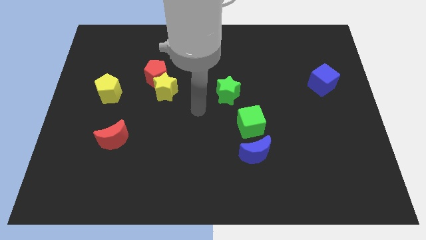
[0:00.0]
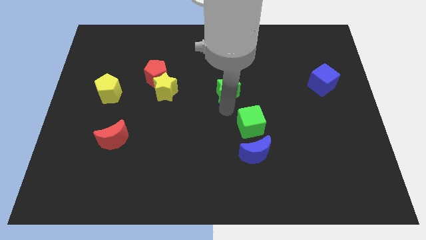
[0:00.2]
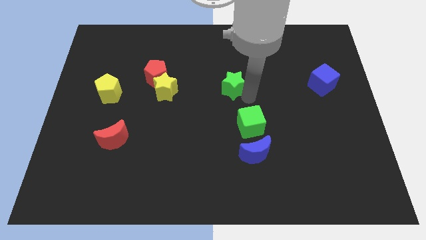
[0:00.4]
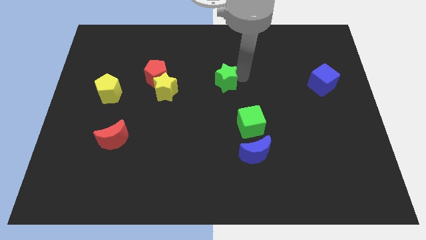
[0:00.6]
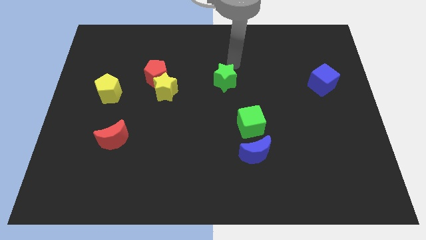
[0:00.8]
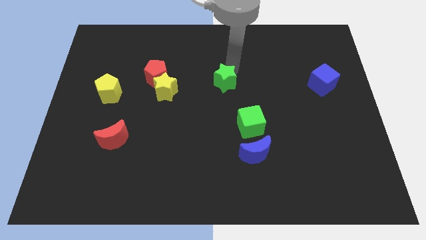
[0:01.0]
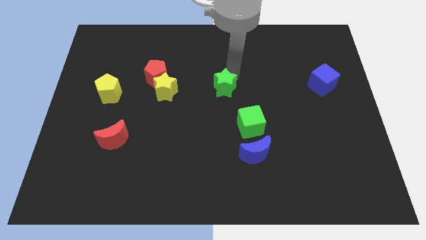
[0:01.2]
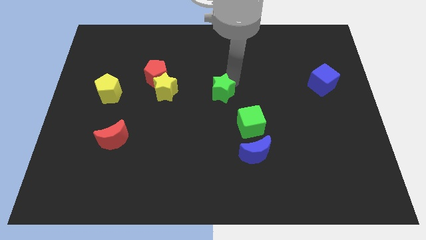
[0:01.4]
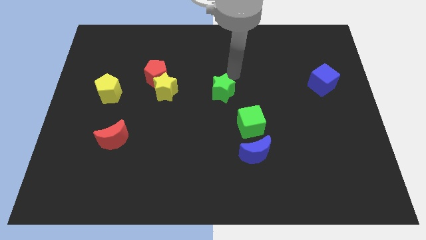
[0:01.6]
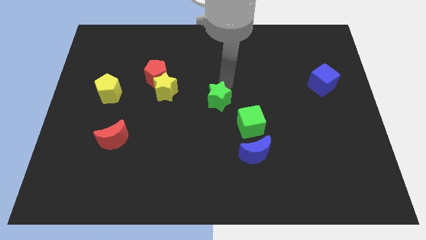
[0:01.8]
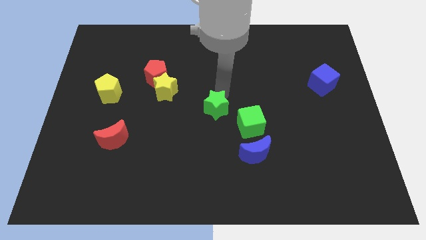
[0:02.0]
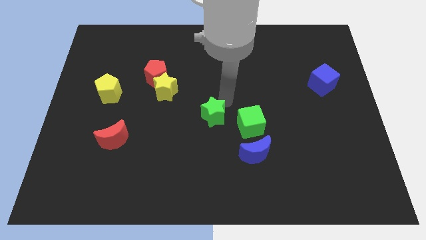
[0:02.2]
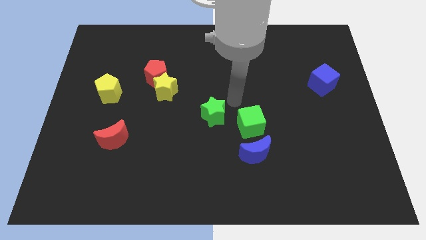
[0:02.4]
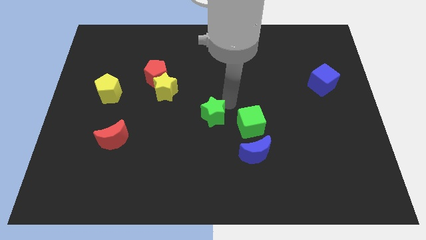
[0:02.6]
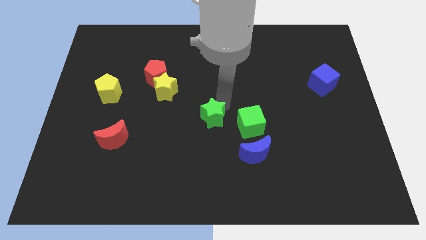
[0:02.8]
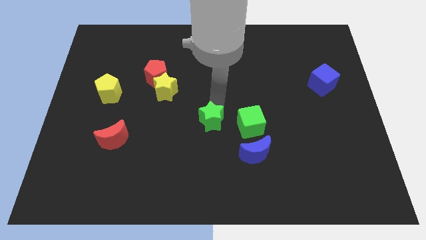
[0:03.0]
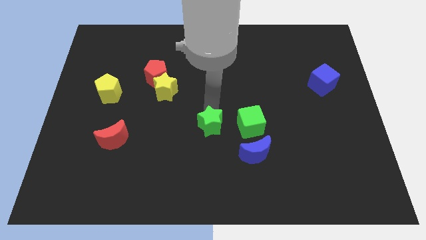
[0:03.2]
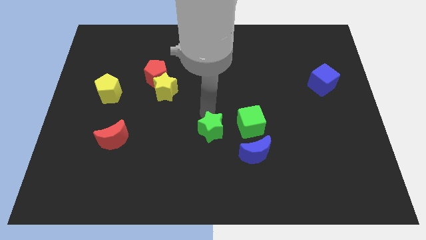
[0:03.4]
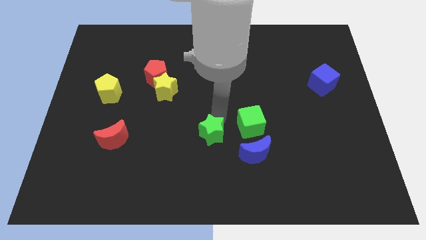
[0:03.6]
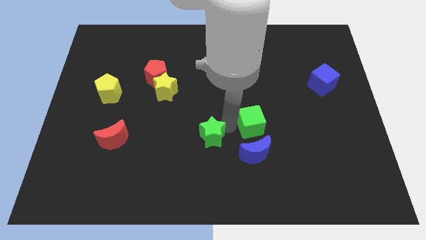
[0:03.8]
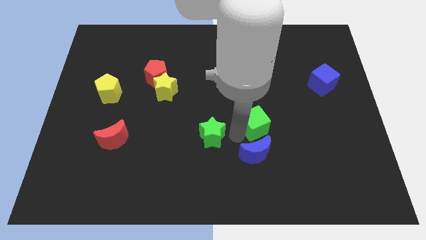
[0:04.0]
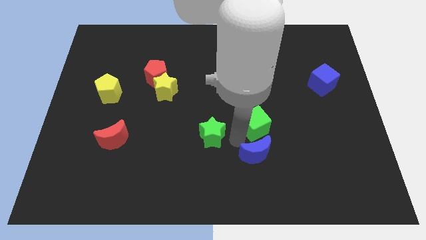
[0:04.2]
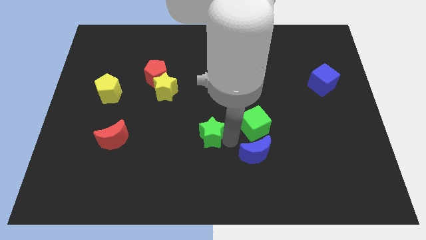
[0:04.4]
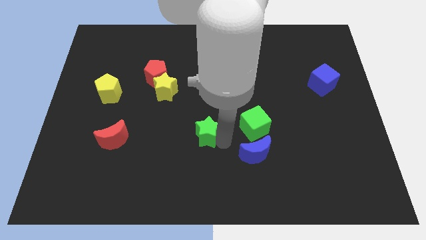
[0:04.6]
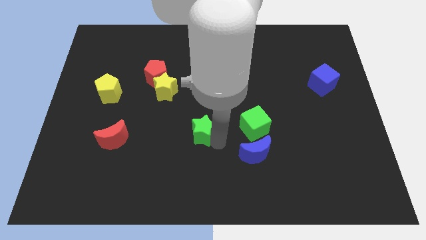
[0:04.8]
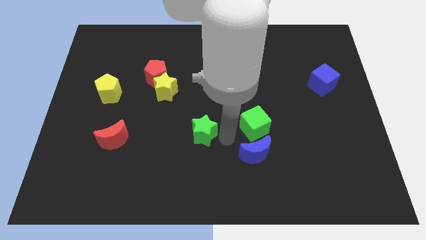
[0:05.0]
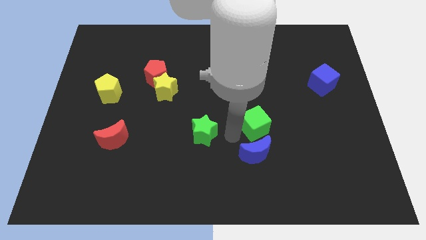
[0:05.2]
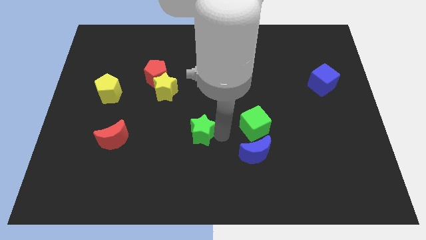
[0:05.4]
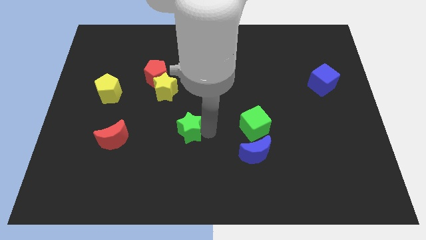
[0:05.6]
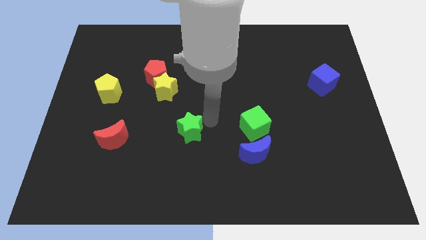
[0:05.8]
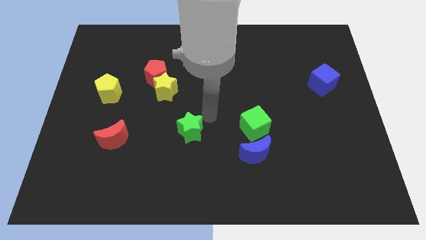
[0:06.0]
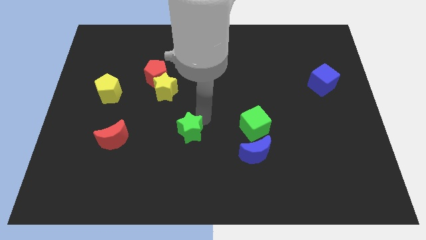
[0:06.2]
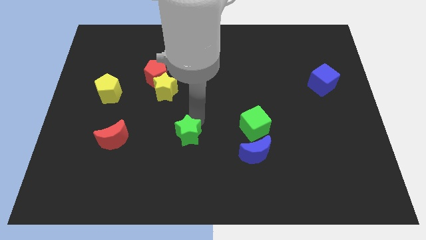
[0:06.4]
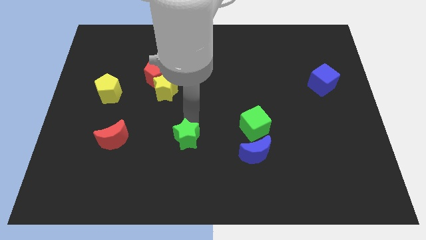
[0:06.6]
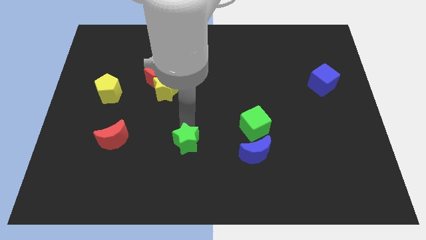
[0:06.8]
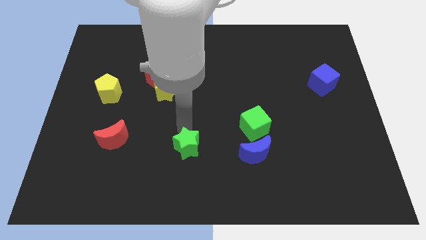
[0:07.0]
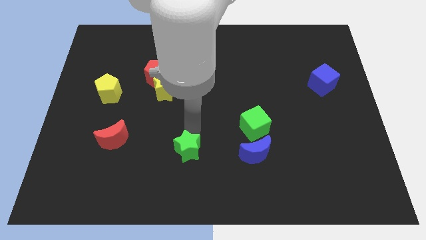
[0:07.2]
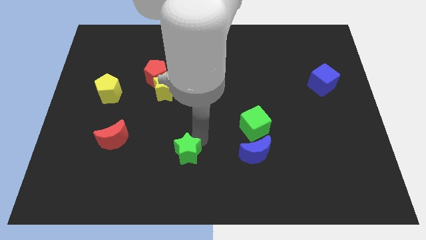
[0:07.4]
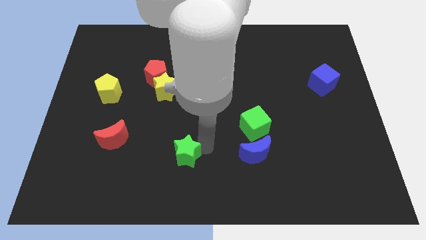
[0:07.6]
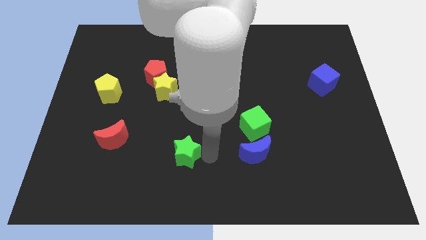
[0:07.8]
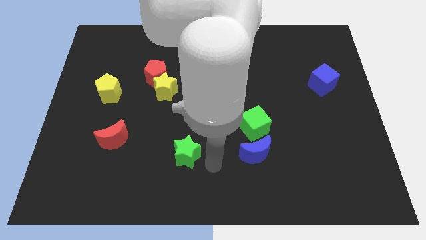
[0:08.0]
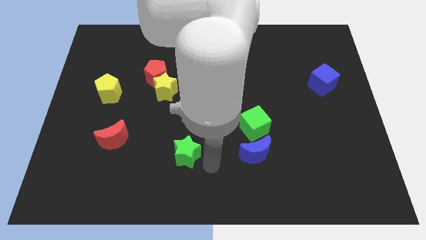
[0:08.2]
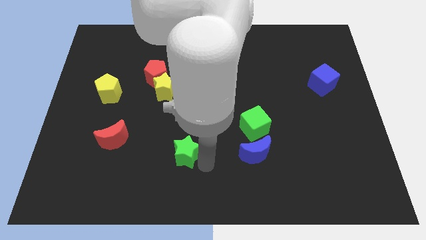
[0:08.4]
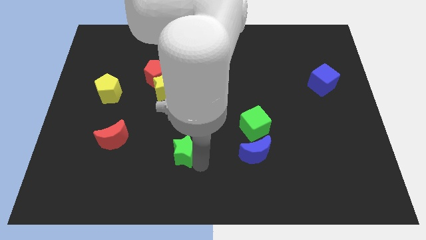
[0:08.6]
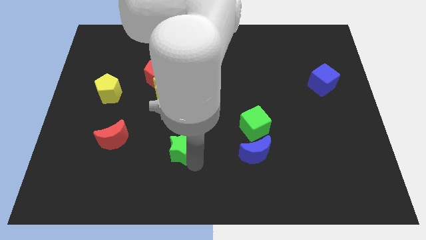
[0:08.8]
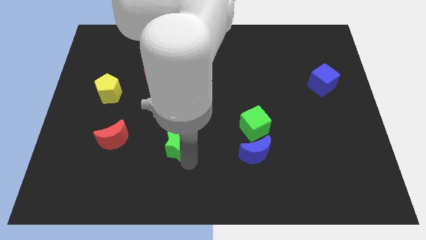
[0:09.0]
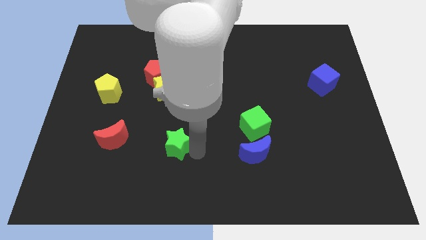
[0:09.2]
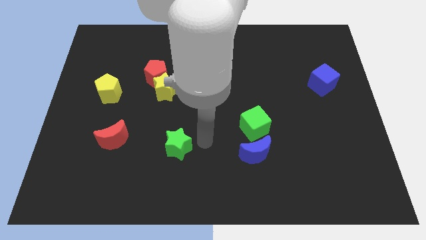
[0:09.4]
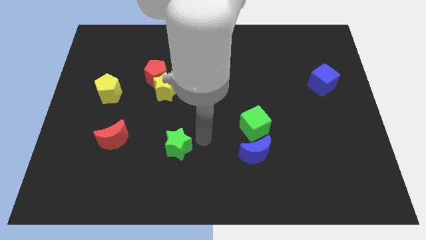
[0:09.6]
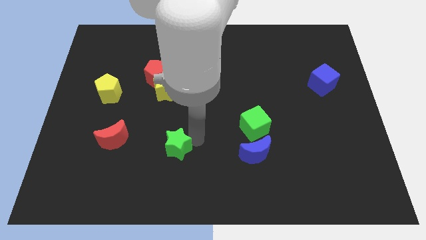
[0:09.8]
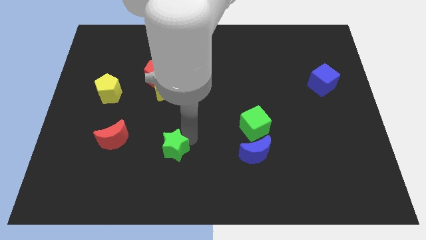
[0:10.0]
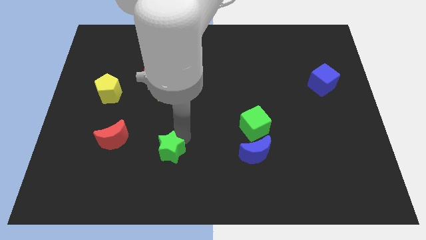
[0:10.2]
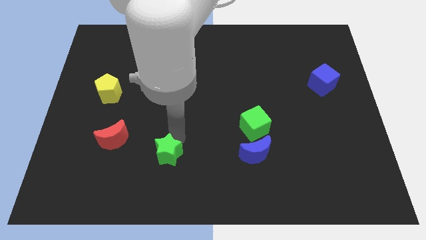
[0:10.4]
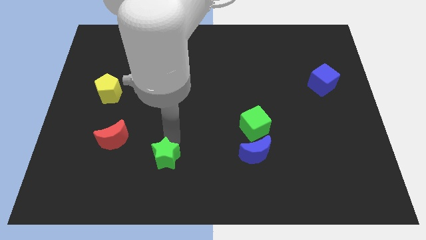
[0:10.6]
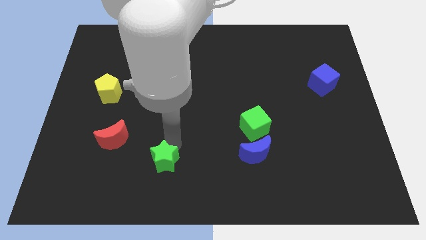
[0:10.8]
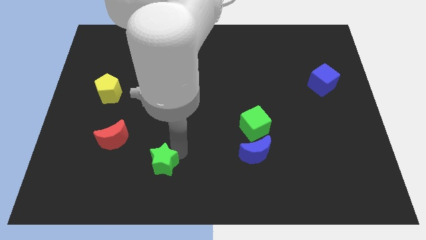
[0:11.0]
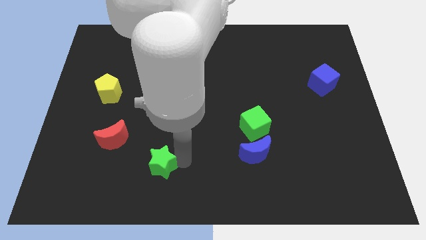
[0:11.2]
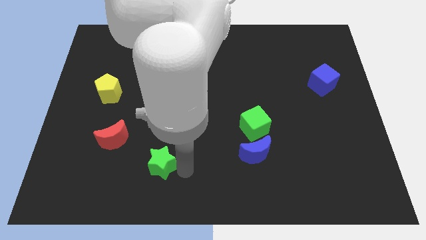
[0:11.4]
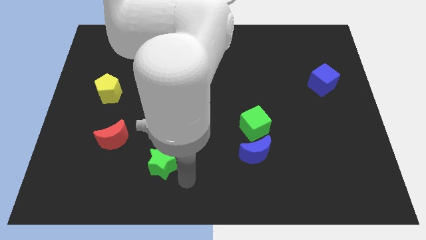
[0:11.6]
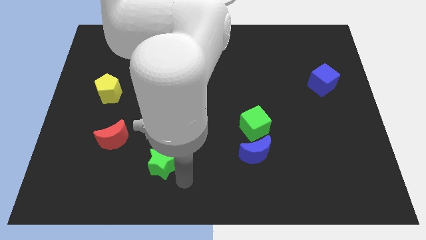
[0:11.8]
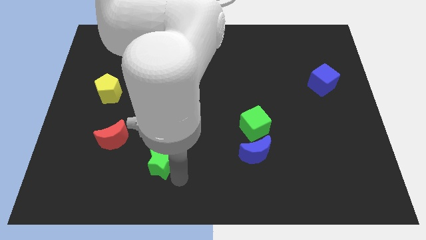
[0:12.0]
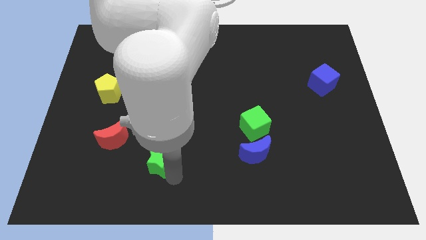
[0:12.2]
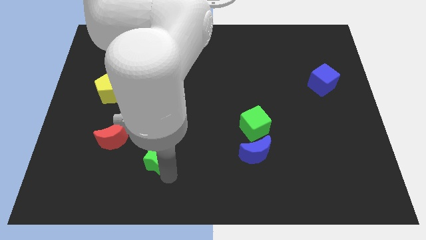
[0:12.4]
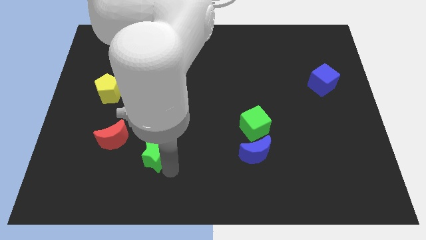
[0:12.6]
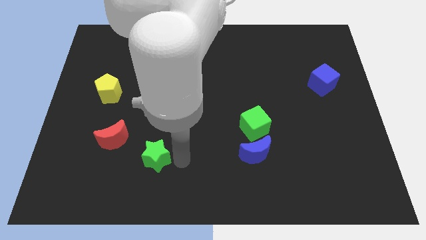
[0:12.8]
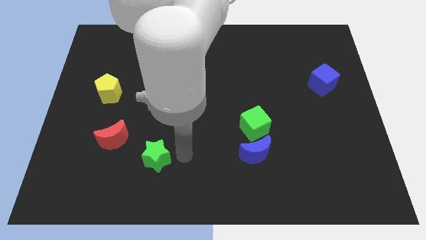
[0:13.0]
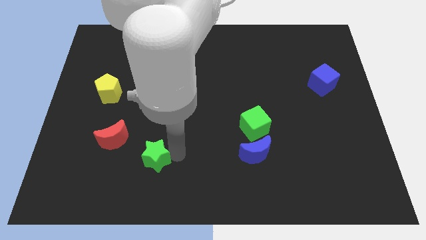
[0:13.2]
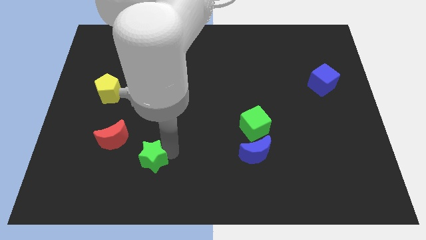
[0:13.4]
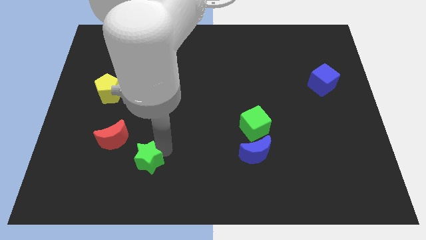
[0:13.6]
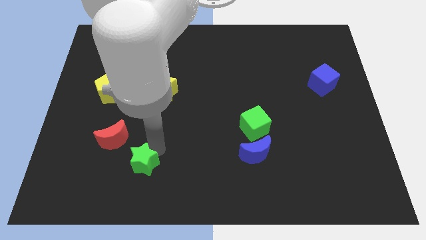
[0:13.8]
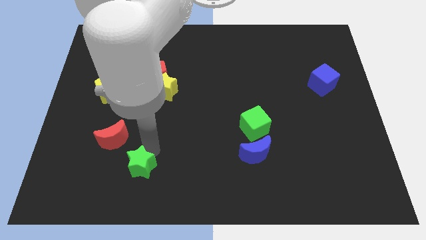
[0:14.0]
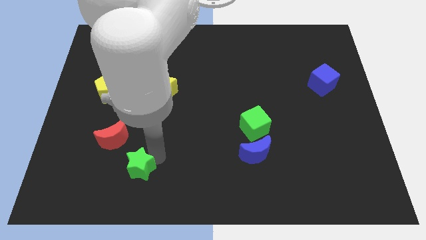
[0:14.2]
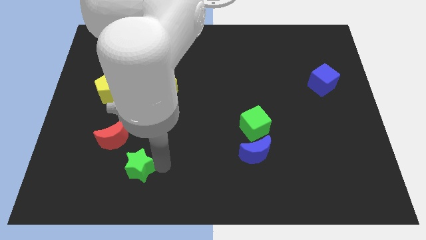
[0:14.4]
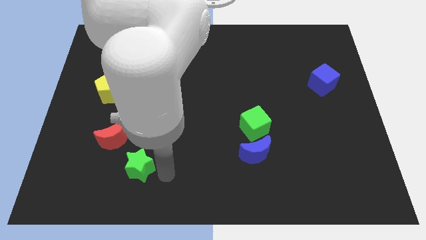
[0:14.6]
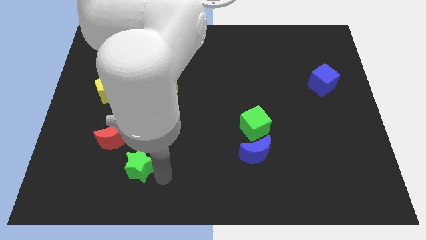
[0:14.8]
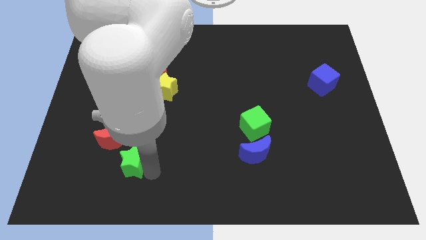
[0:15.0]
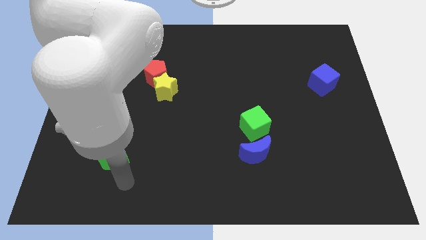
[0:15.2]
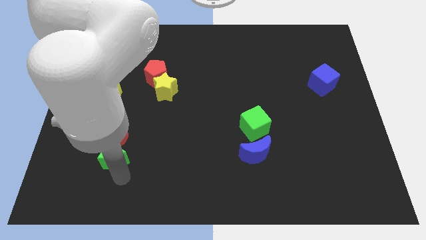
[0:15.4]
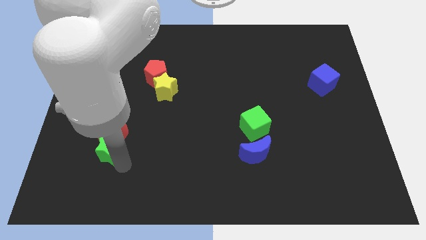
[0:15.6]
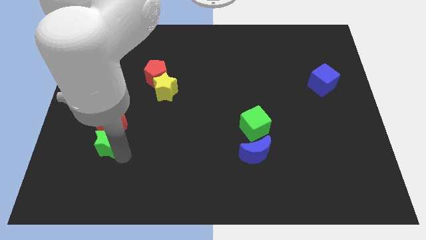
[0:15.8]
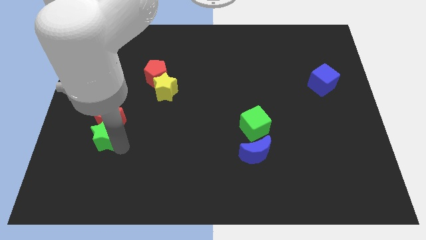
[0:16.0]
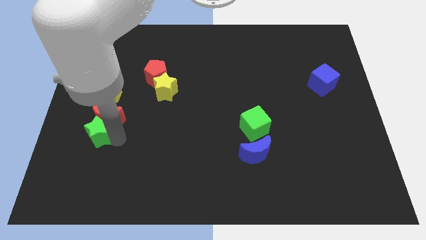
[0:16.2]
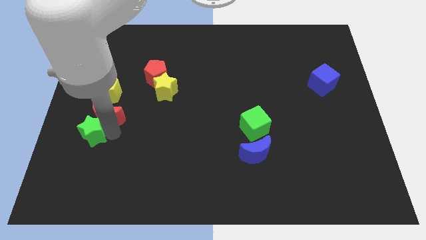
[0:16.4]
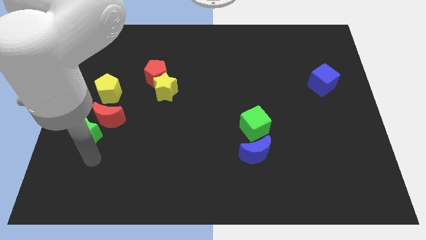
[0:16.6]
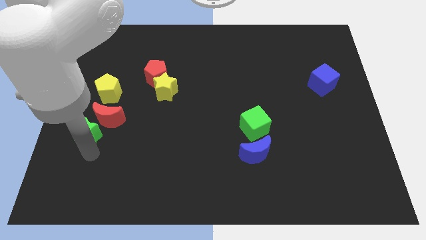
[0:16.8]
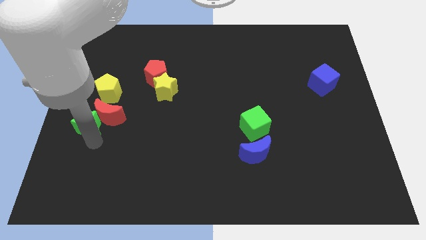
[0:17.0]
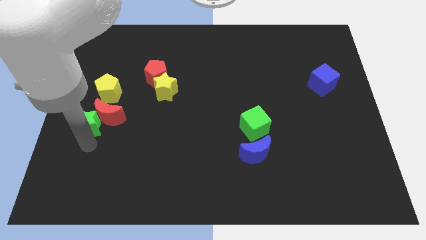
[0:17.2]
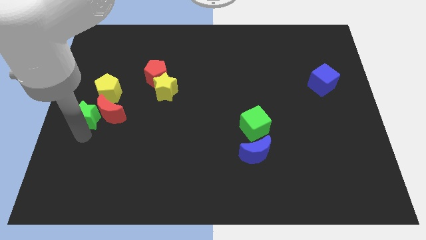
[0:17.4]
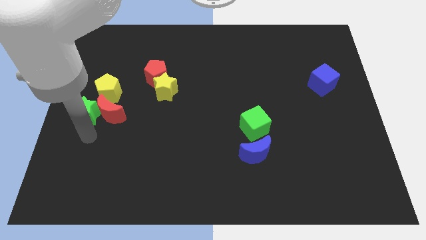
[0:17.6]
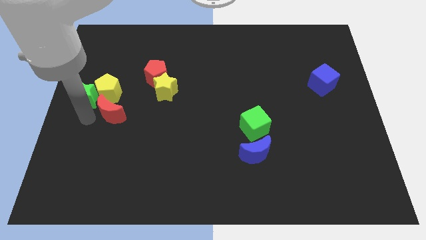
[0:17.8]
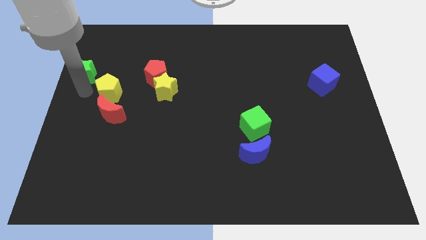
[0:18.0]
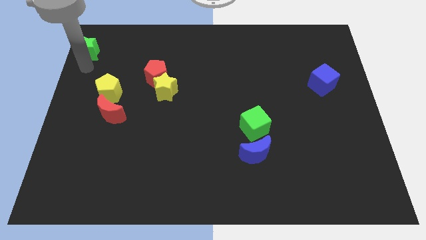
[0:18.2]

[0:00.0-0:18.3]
push the green star to the top left of the board
